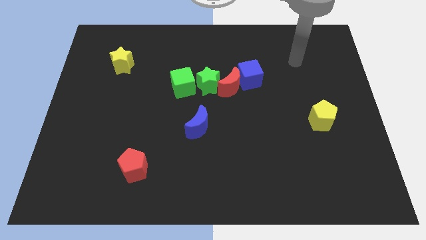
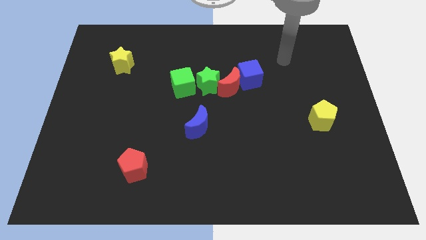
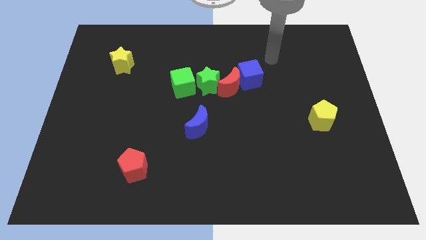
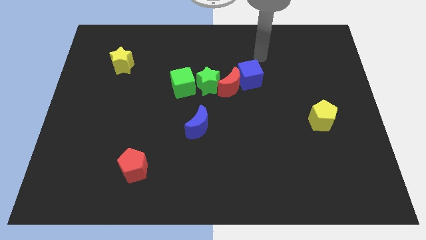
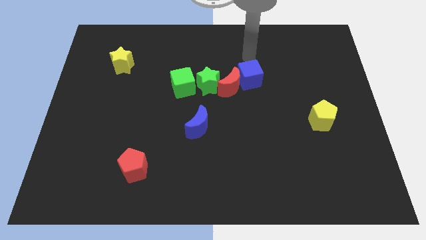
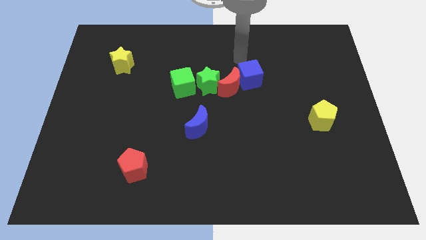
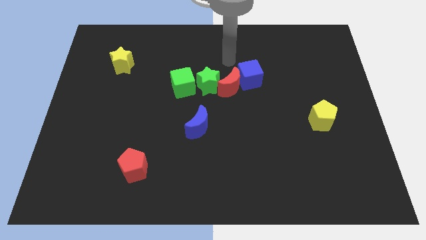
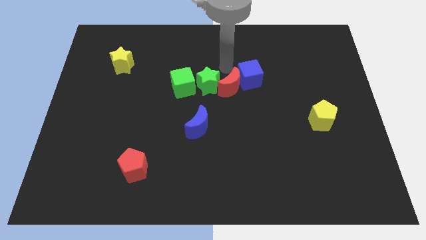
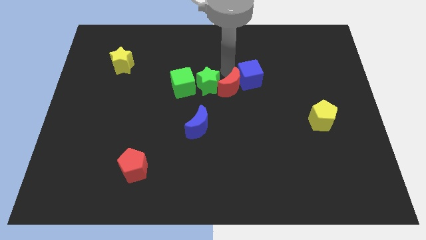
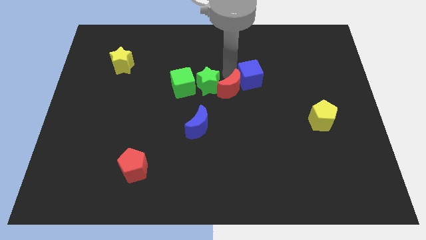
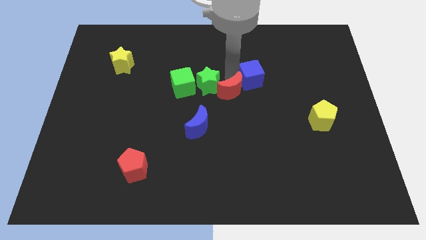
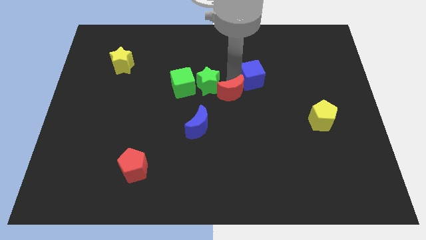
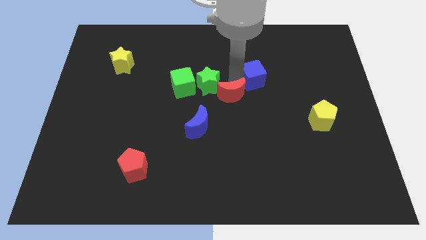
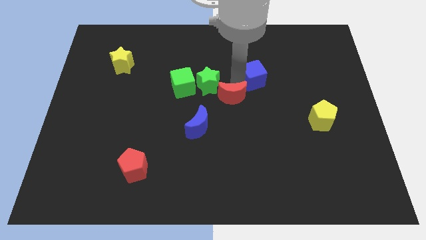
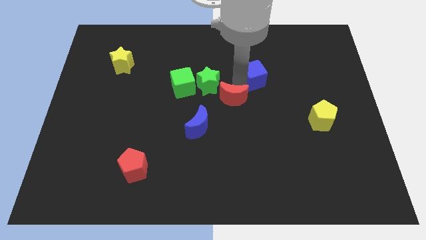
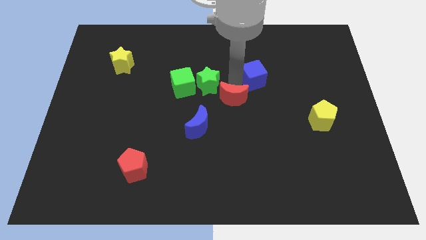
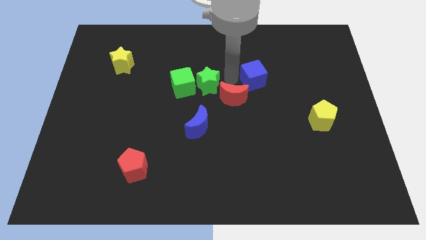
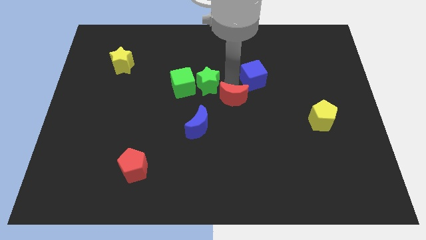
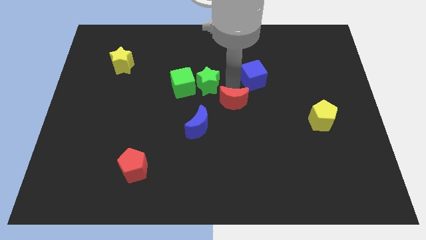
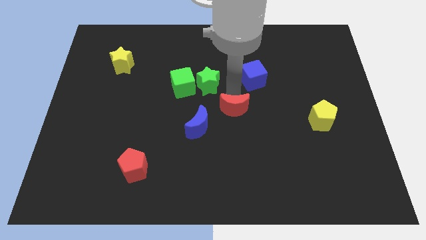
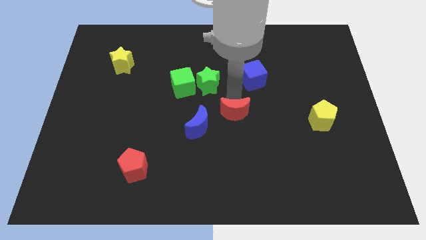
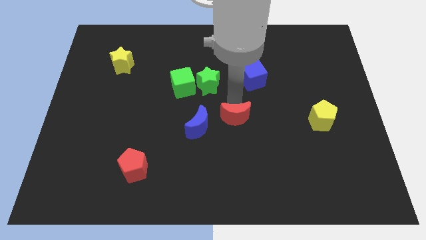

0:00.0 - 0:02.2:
pull the red moon apart from the green star and blue cube

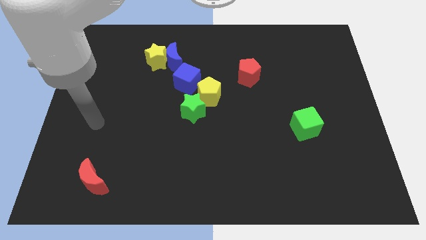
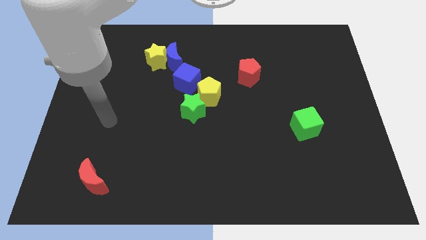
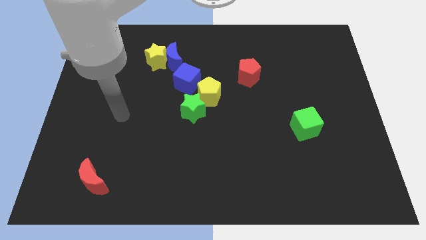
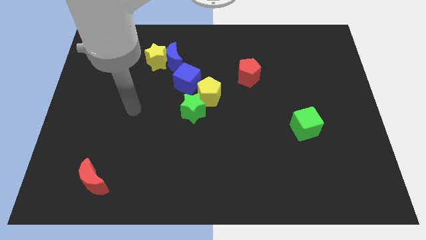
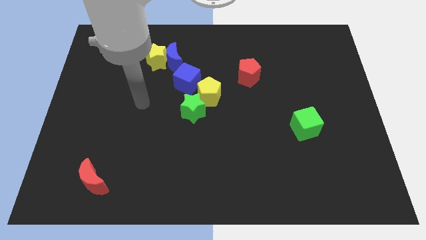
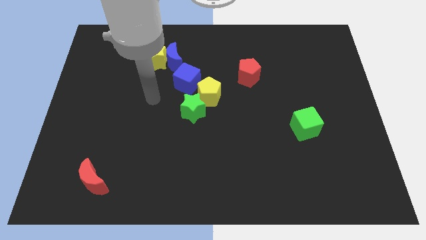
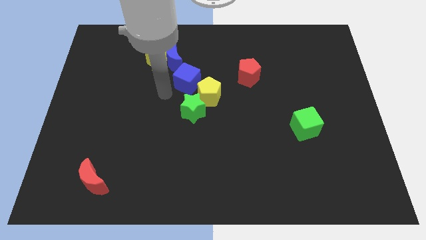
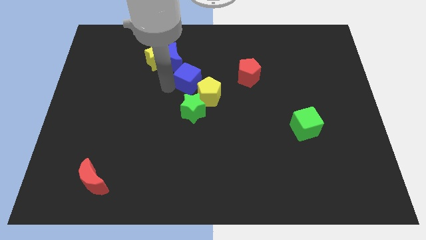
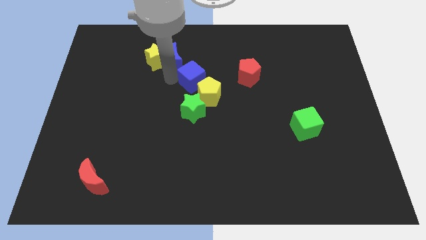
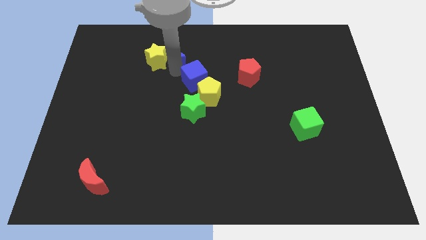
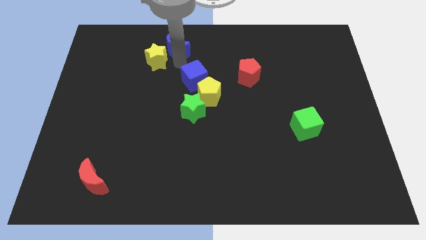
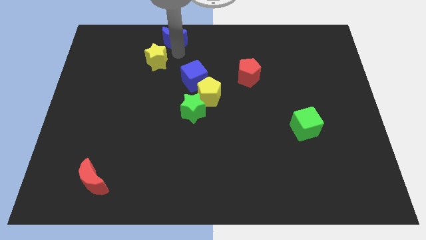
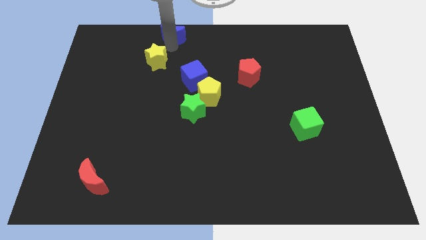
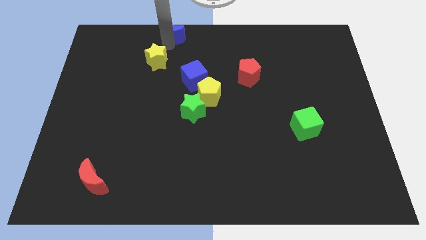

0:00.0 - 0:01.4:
move the yellow star away from the blue moon

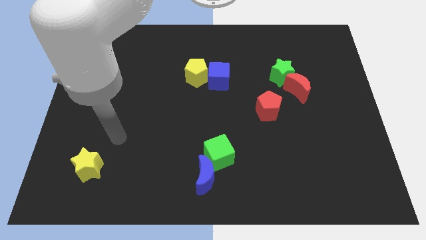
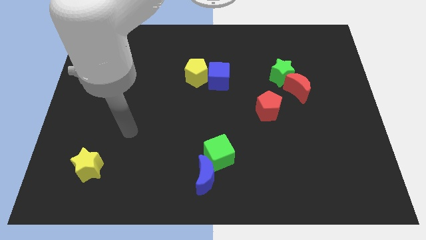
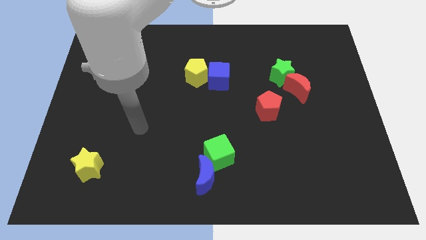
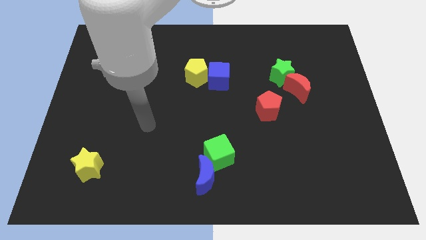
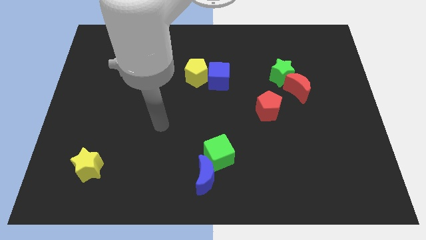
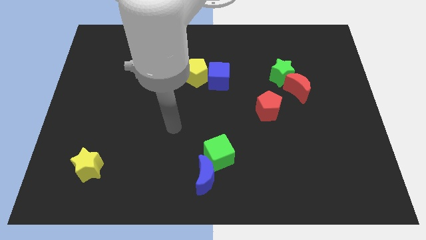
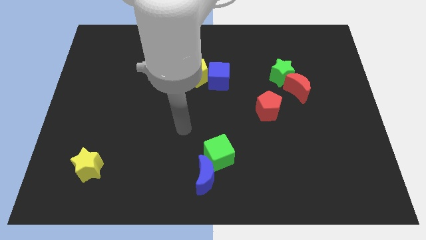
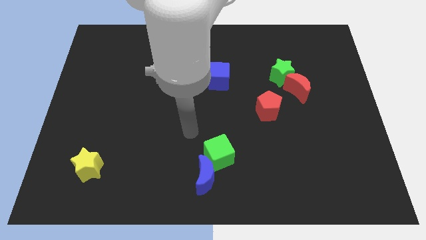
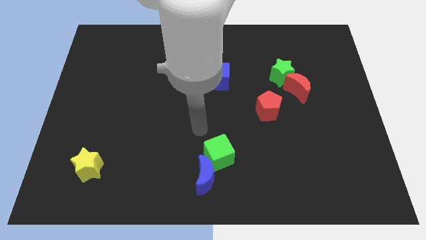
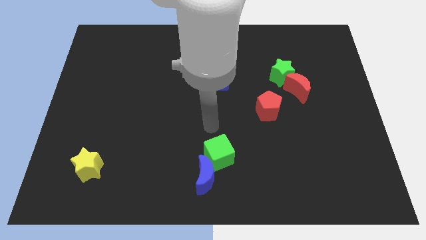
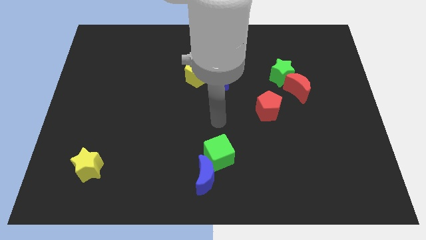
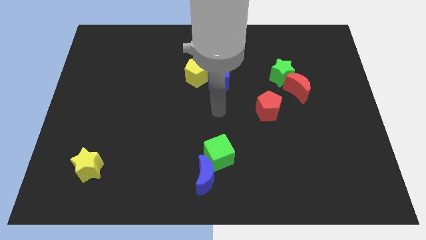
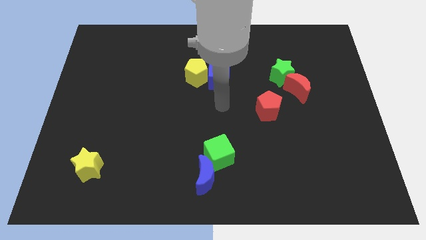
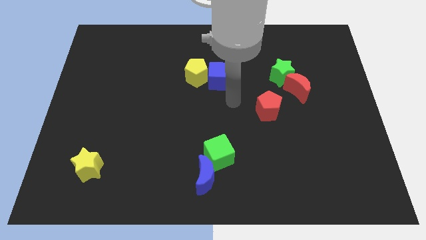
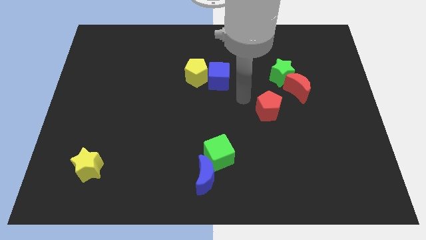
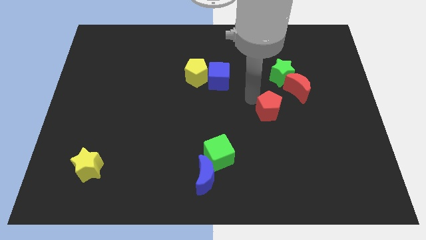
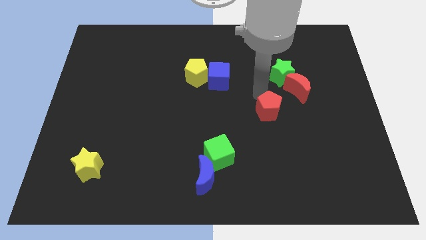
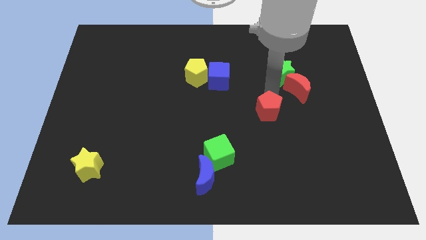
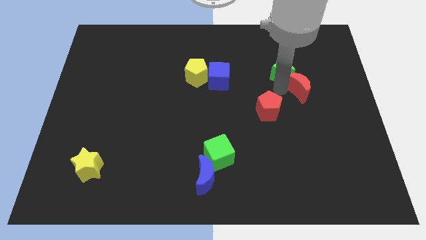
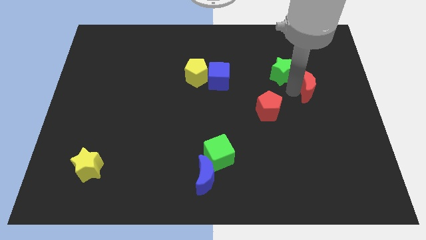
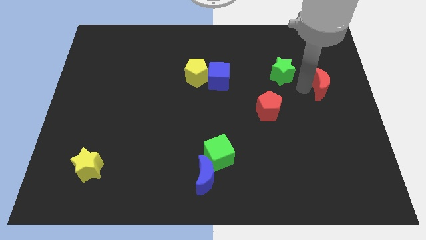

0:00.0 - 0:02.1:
move the green star away from the red moon

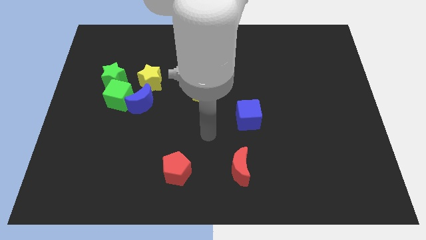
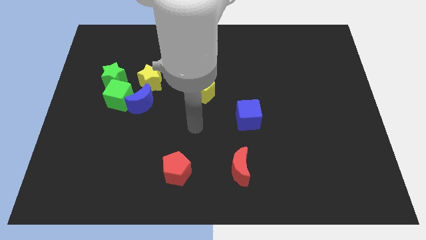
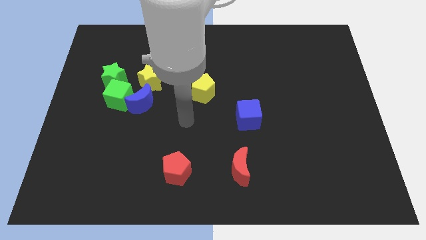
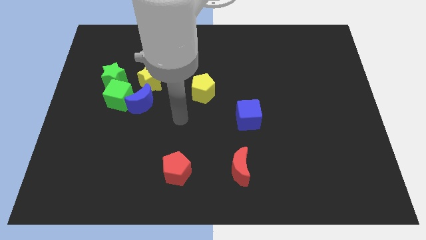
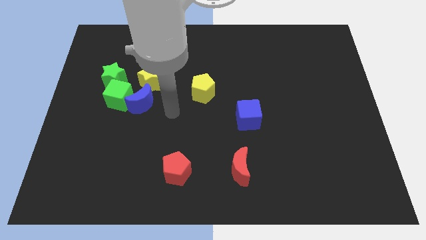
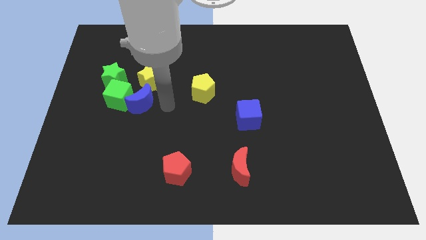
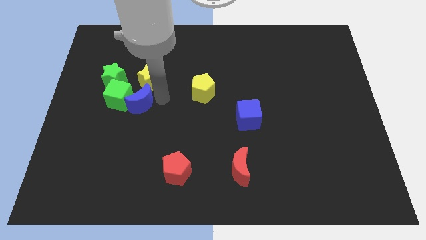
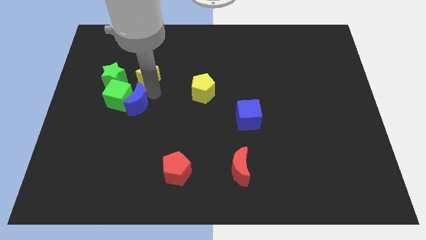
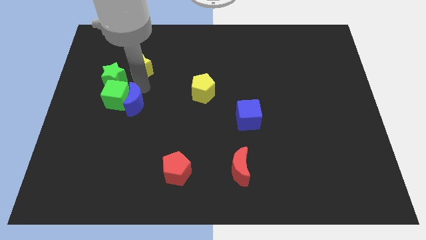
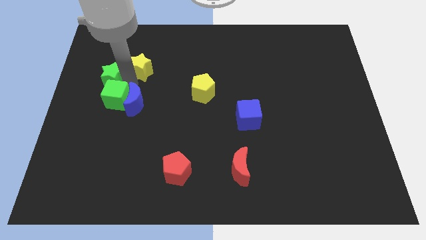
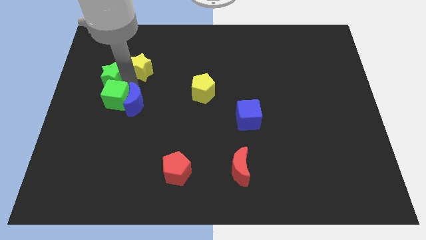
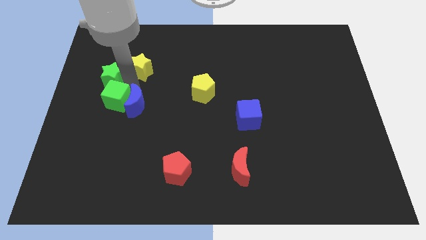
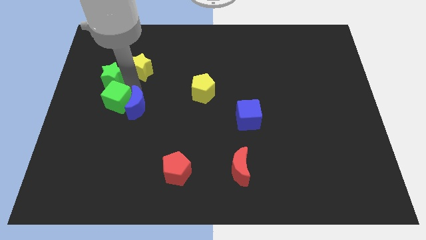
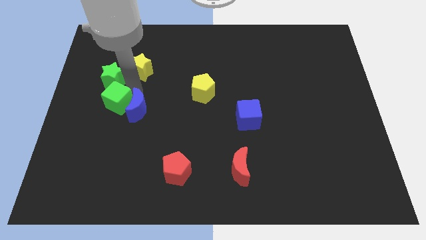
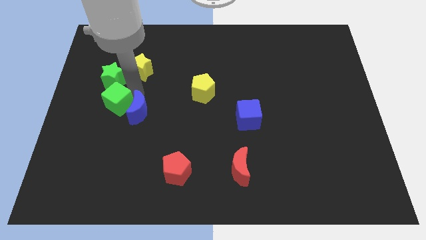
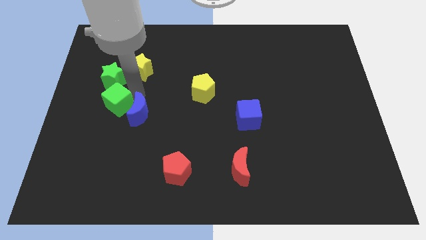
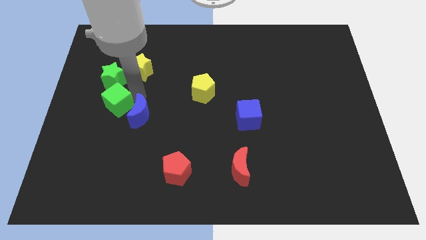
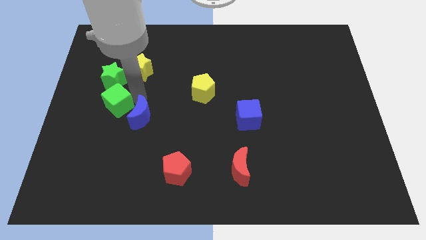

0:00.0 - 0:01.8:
separate the blue moon from the green cube and yellow star

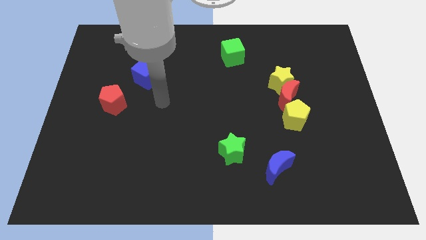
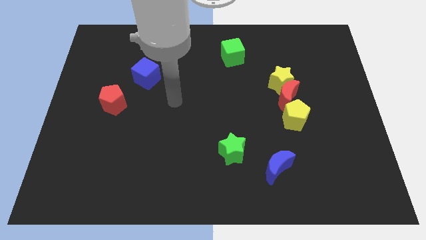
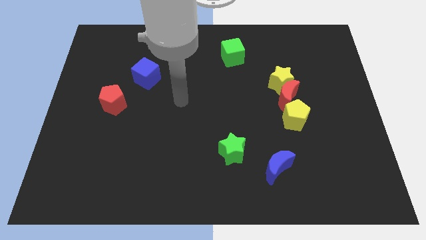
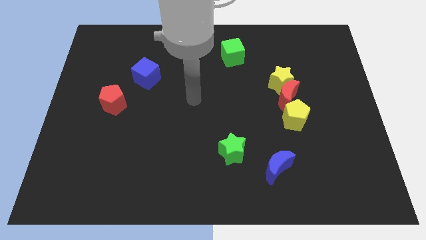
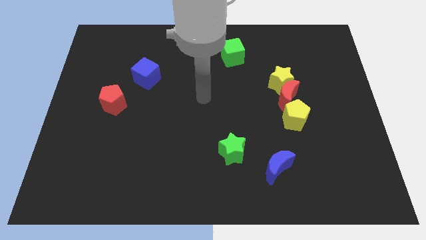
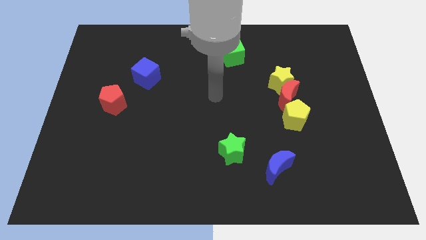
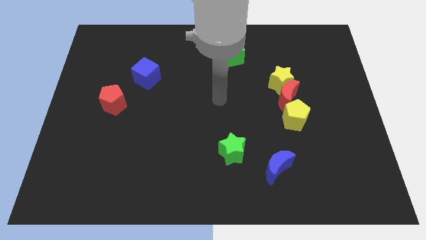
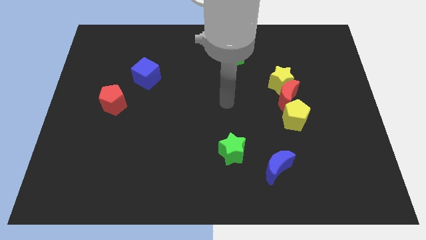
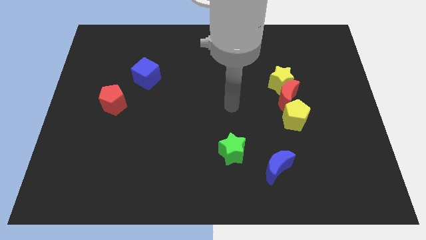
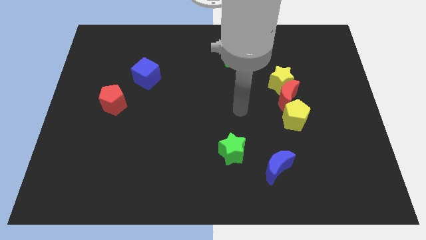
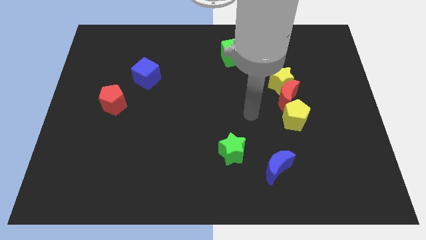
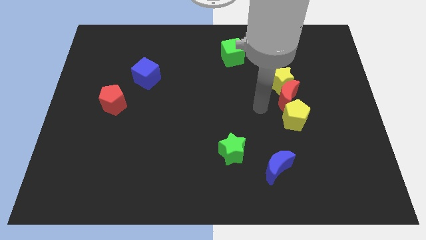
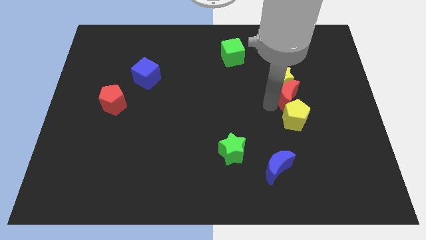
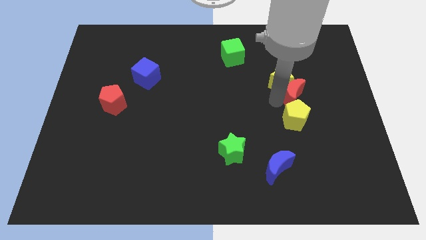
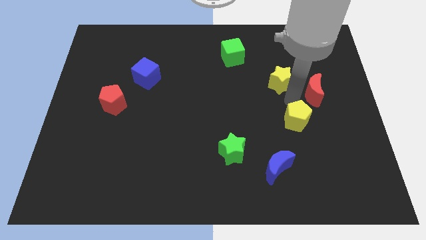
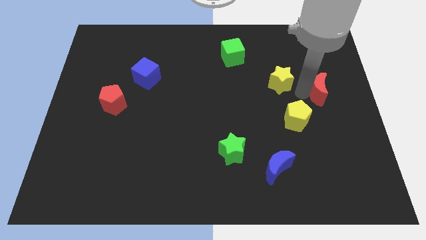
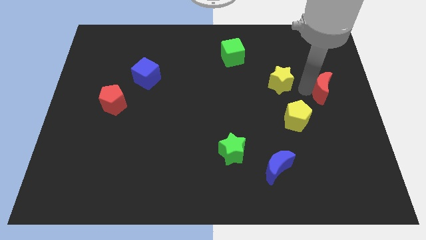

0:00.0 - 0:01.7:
pull the yellow star apart from the red moon
